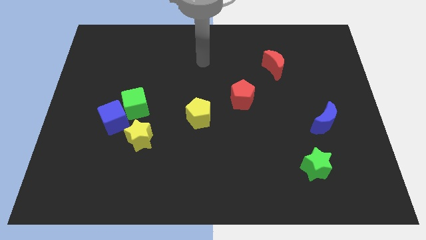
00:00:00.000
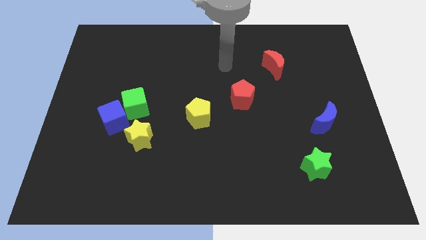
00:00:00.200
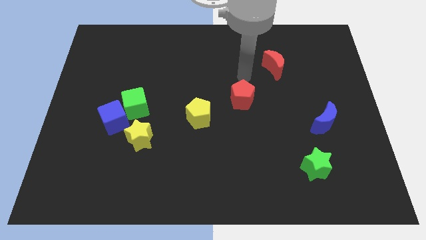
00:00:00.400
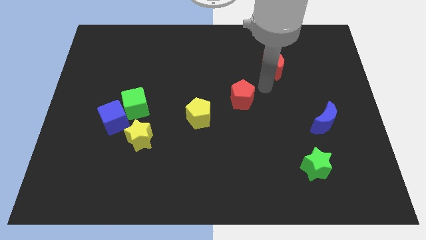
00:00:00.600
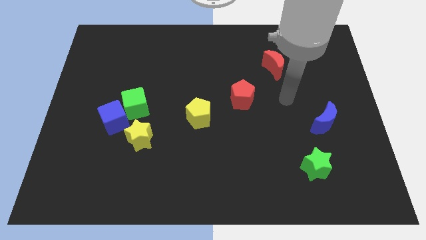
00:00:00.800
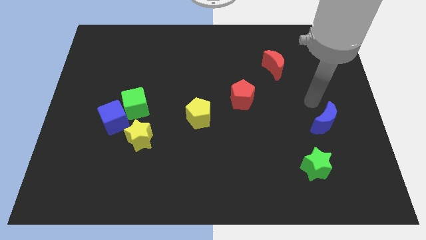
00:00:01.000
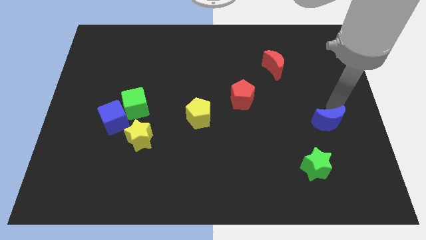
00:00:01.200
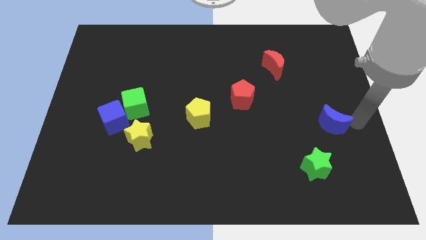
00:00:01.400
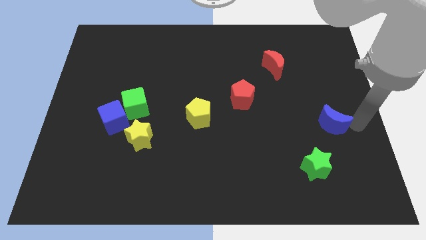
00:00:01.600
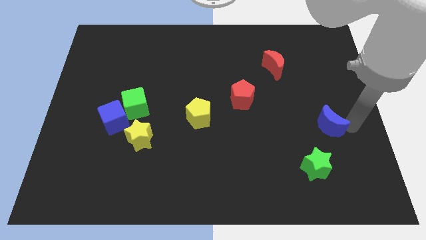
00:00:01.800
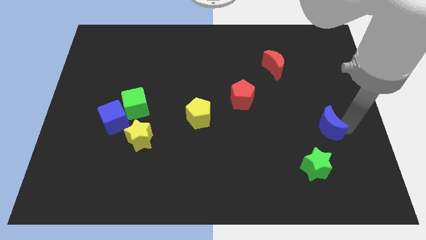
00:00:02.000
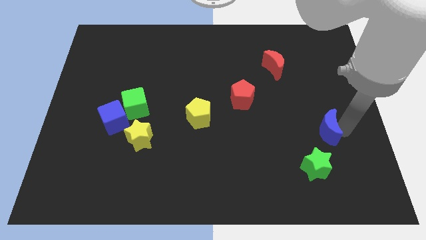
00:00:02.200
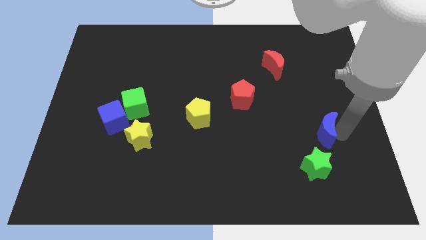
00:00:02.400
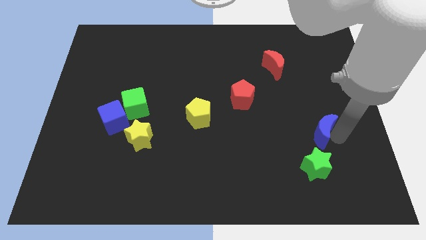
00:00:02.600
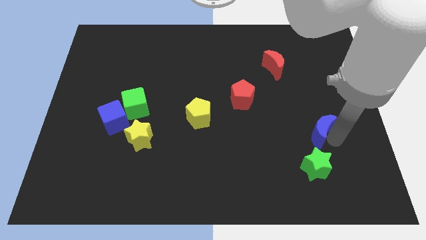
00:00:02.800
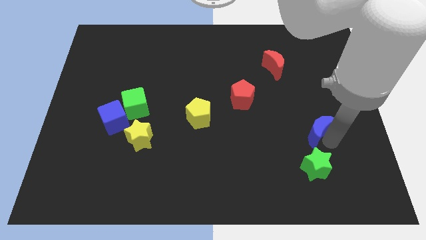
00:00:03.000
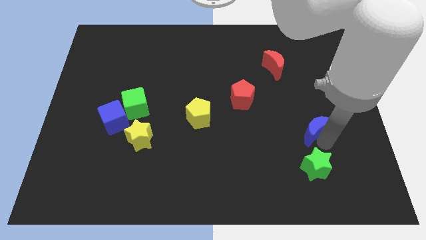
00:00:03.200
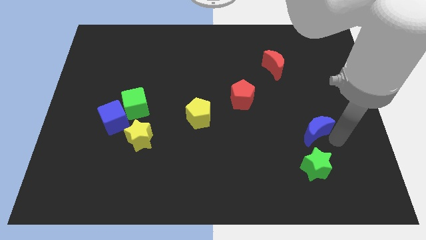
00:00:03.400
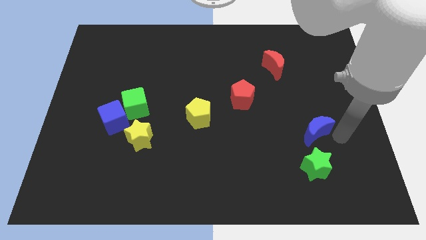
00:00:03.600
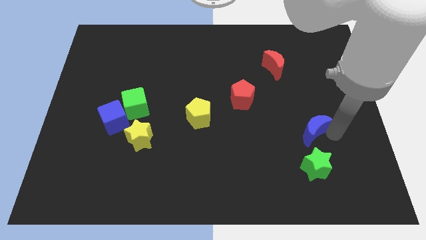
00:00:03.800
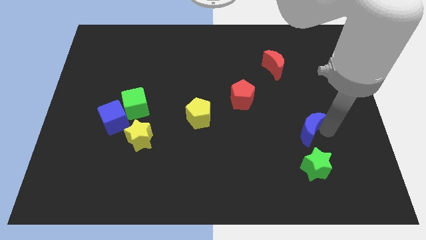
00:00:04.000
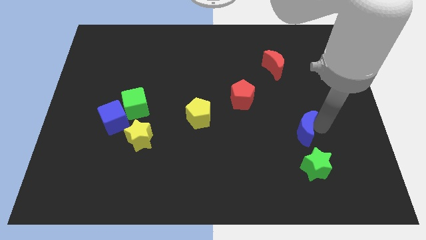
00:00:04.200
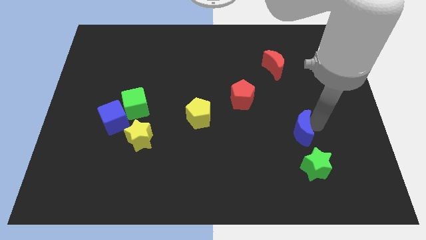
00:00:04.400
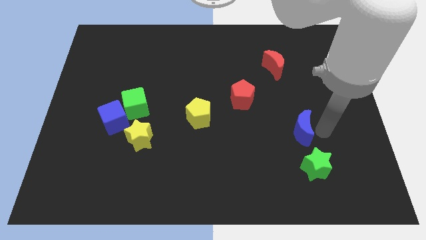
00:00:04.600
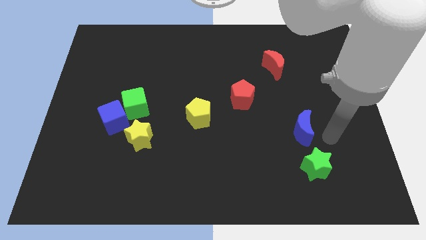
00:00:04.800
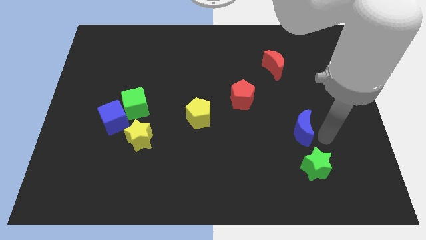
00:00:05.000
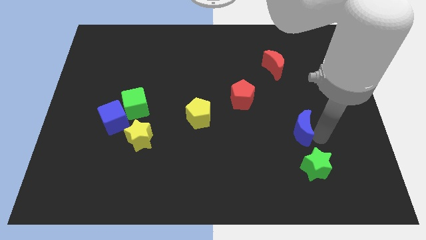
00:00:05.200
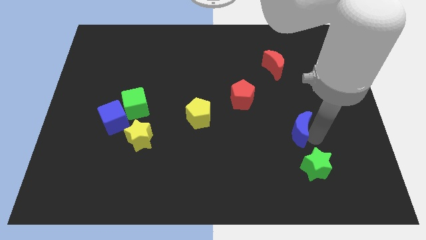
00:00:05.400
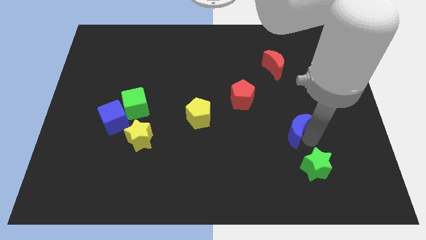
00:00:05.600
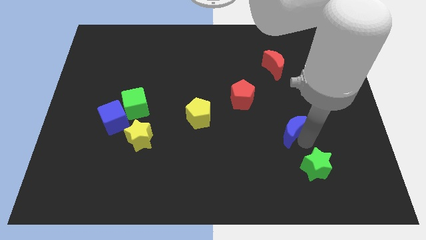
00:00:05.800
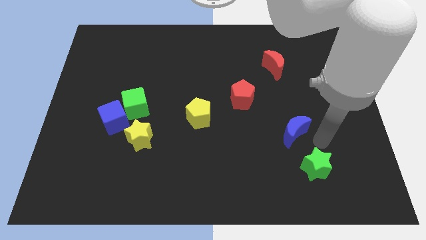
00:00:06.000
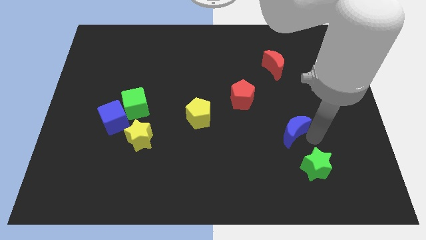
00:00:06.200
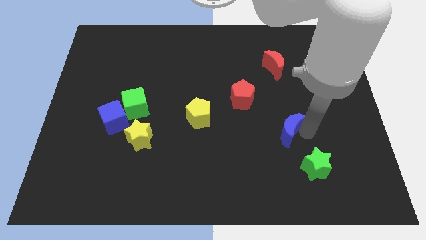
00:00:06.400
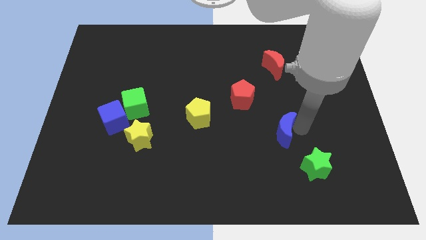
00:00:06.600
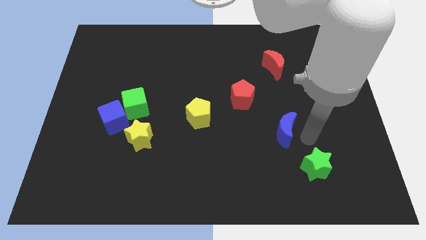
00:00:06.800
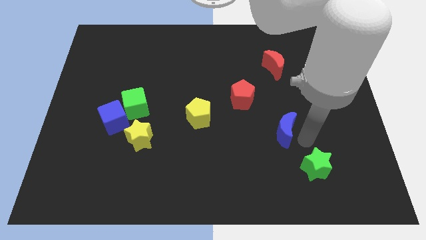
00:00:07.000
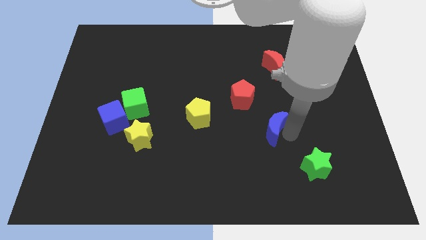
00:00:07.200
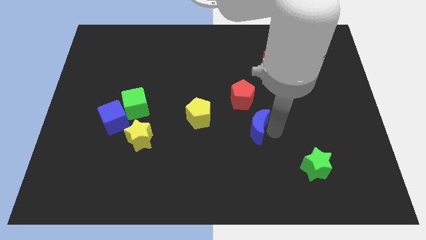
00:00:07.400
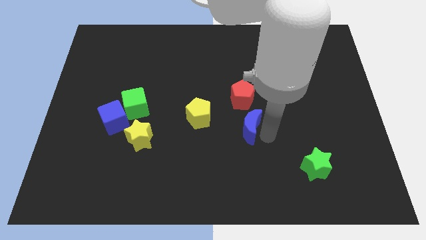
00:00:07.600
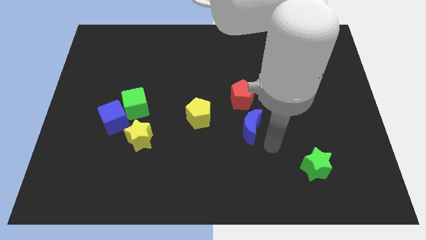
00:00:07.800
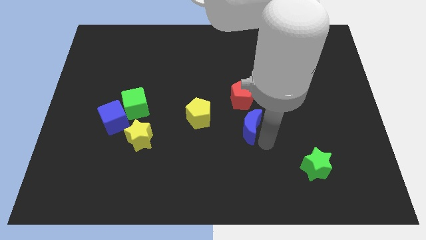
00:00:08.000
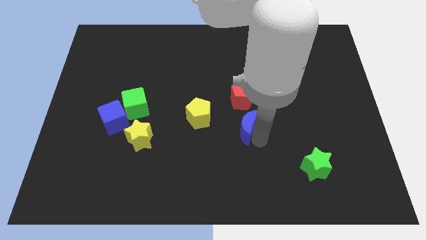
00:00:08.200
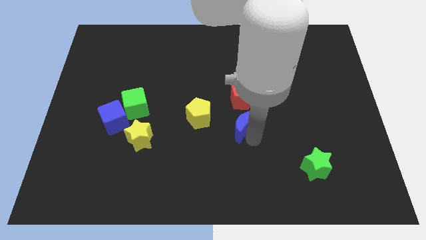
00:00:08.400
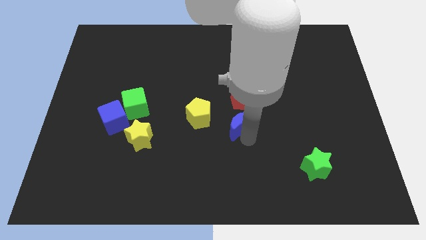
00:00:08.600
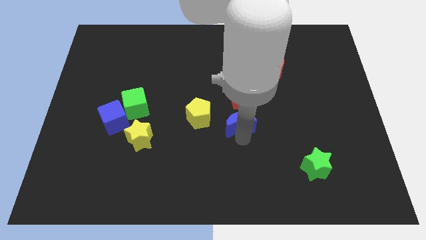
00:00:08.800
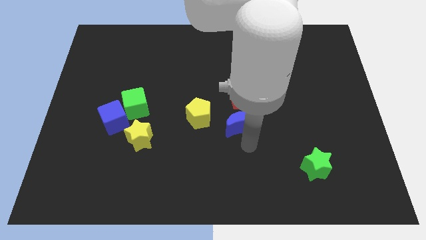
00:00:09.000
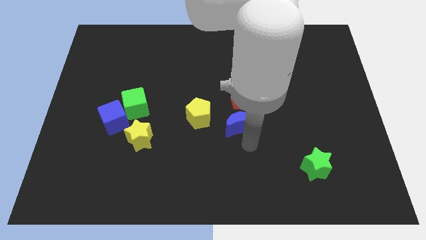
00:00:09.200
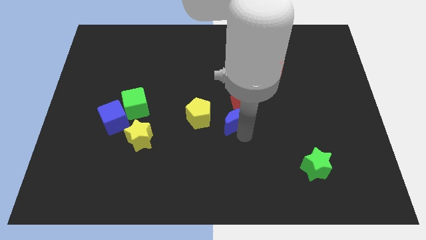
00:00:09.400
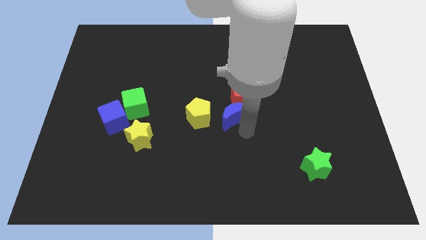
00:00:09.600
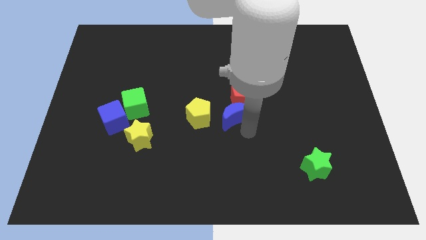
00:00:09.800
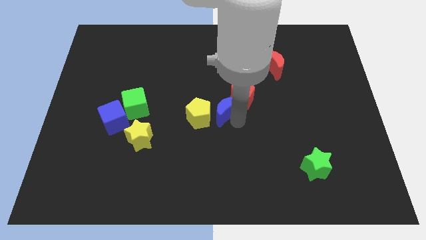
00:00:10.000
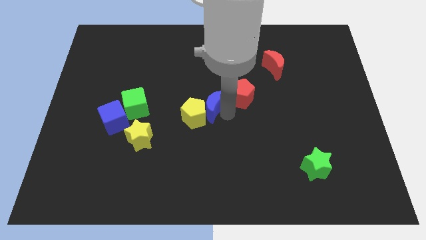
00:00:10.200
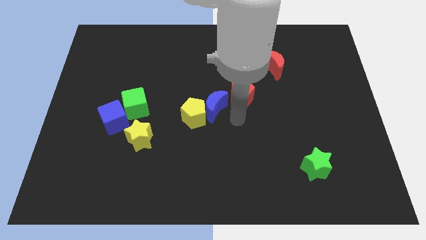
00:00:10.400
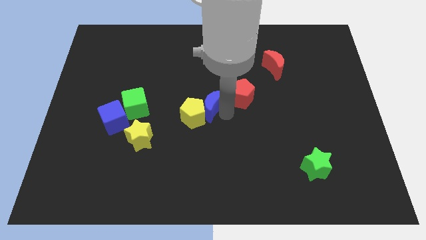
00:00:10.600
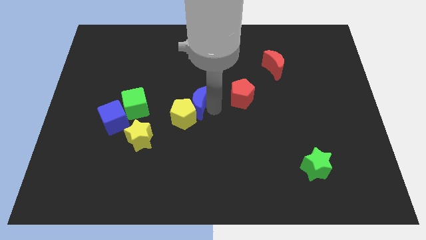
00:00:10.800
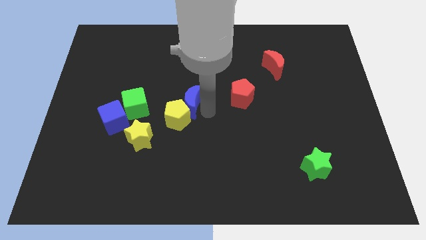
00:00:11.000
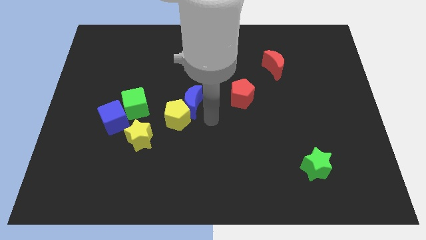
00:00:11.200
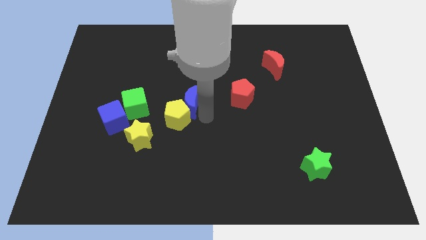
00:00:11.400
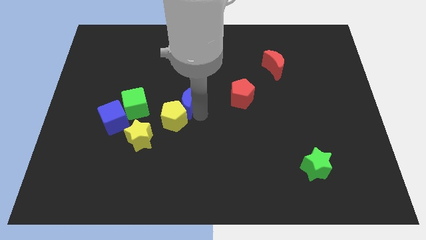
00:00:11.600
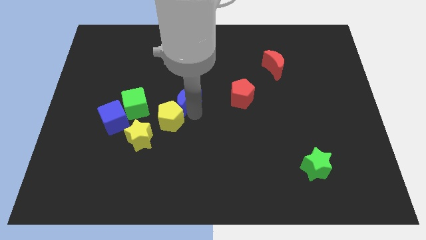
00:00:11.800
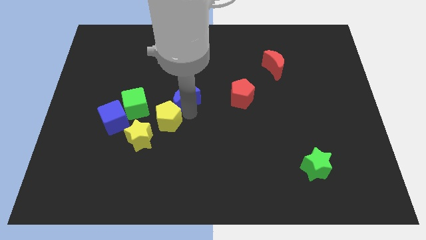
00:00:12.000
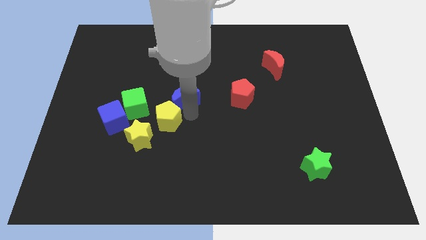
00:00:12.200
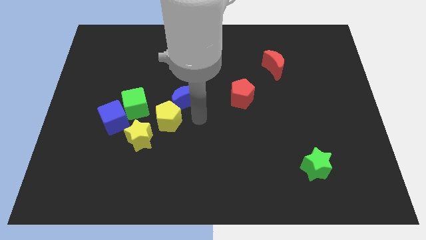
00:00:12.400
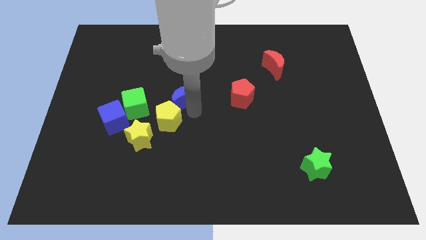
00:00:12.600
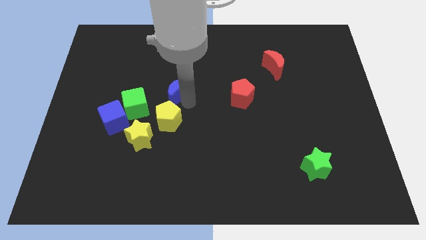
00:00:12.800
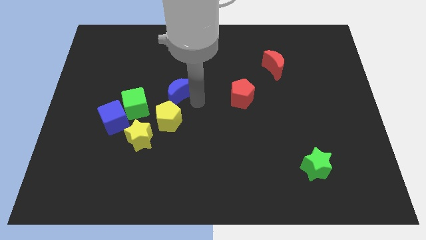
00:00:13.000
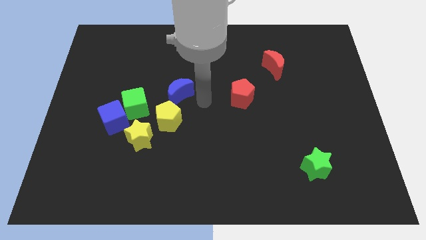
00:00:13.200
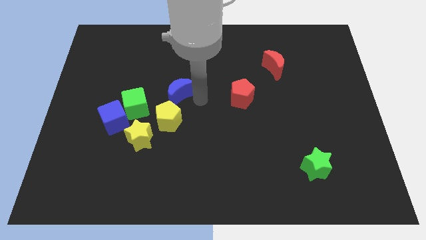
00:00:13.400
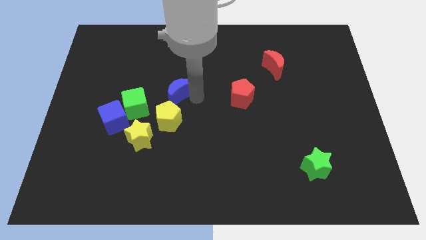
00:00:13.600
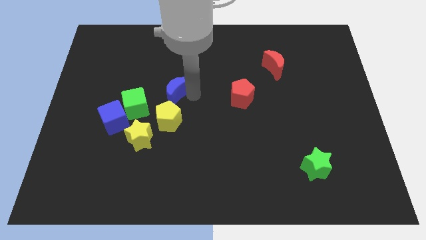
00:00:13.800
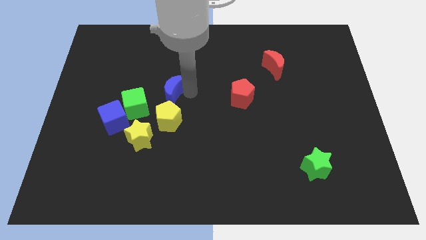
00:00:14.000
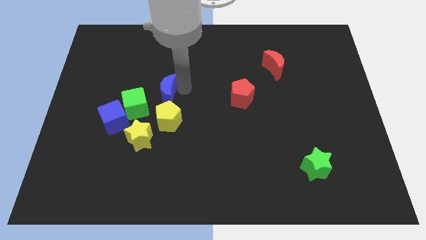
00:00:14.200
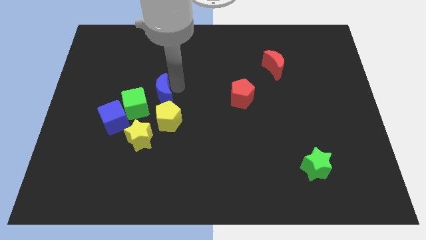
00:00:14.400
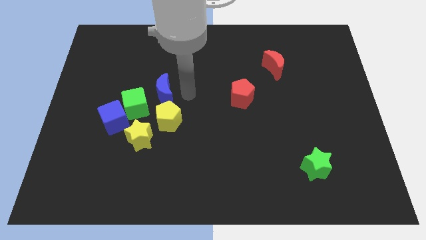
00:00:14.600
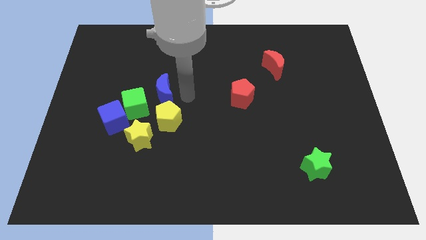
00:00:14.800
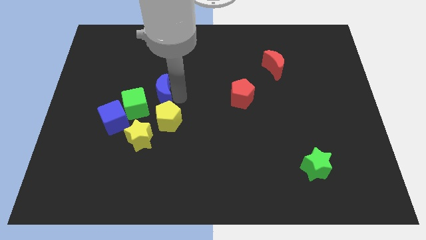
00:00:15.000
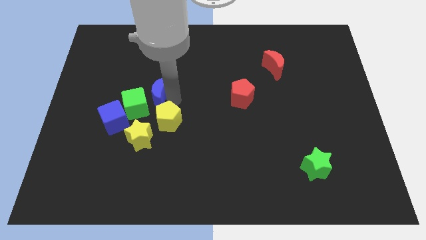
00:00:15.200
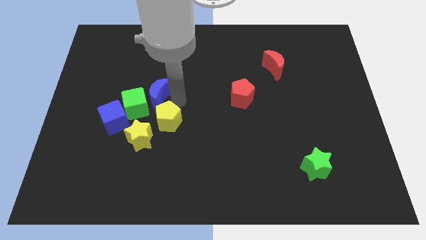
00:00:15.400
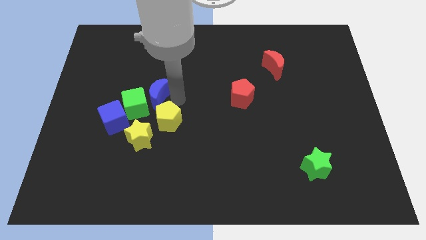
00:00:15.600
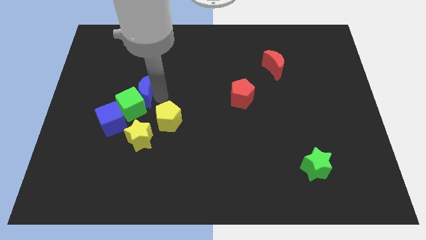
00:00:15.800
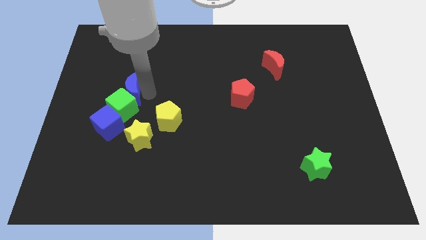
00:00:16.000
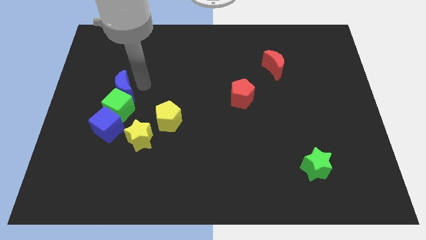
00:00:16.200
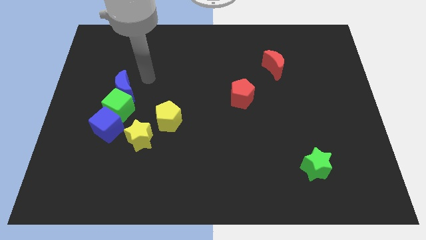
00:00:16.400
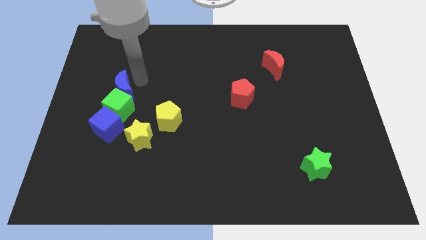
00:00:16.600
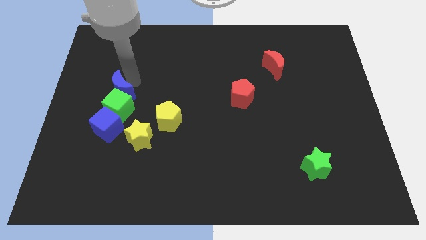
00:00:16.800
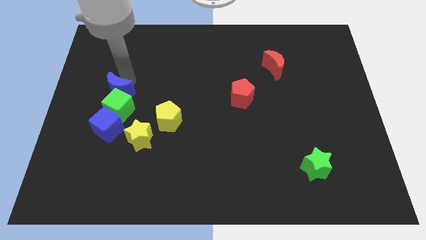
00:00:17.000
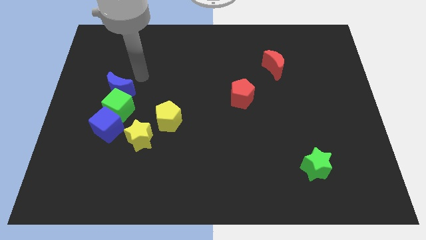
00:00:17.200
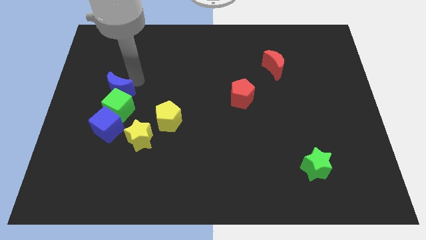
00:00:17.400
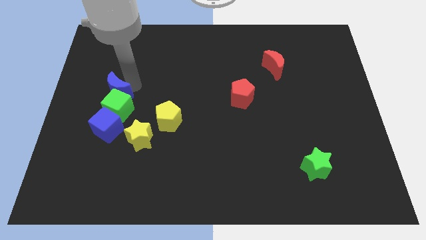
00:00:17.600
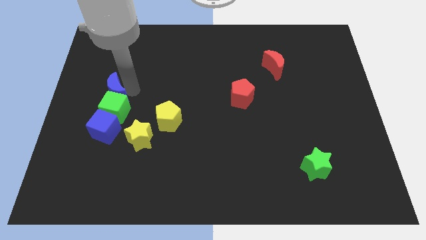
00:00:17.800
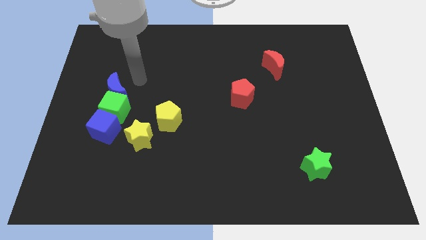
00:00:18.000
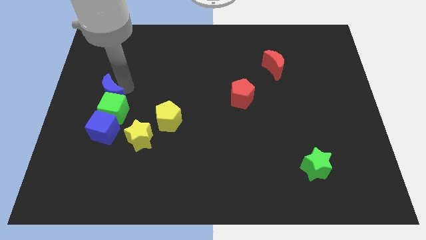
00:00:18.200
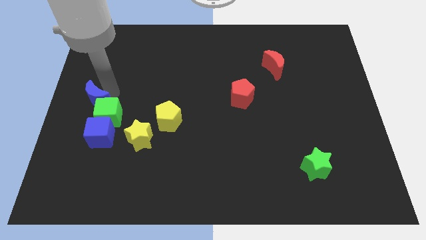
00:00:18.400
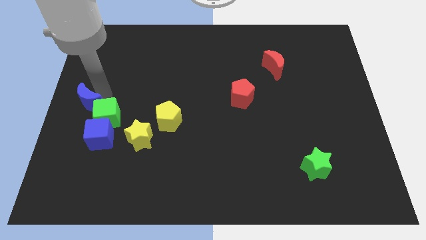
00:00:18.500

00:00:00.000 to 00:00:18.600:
move the blue moon to the top left of the blue cube
